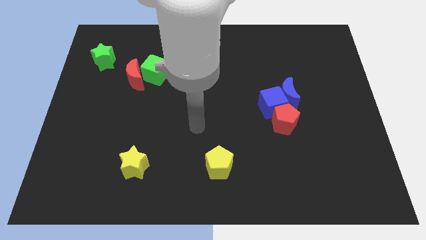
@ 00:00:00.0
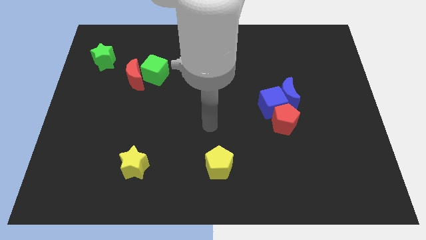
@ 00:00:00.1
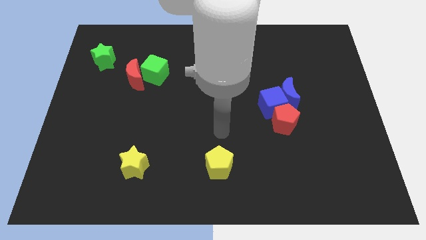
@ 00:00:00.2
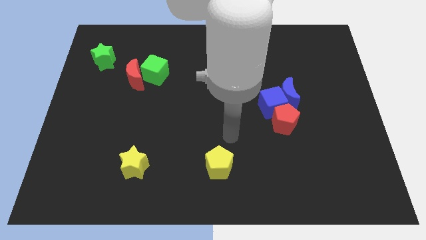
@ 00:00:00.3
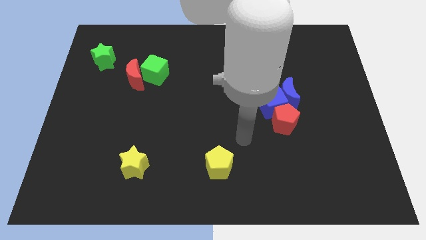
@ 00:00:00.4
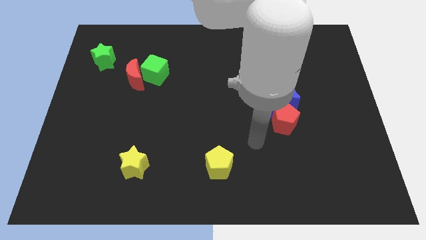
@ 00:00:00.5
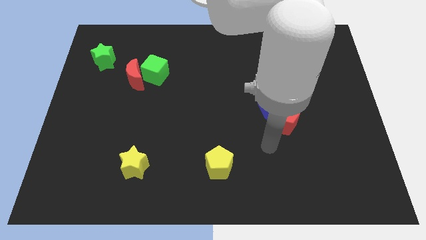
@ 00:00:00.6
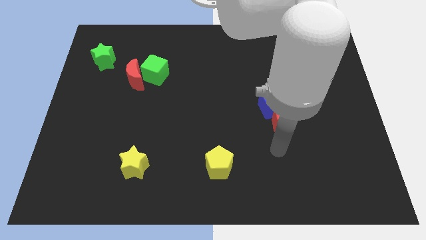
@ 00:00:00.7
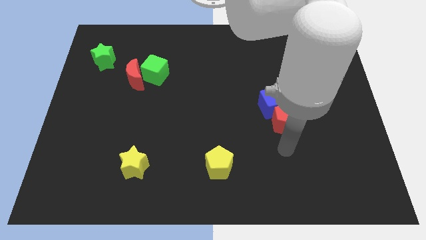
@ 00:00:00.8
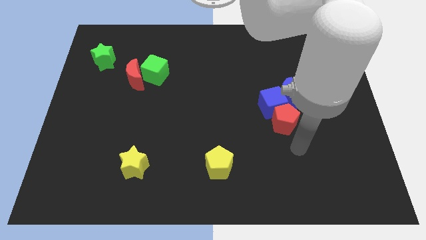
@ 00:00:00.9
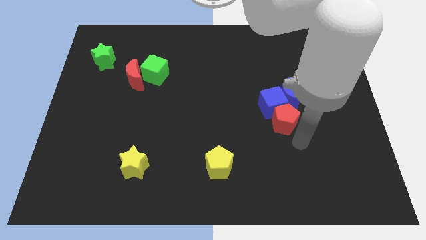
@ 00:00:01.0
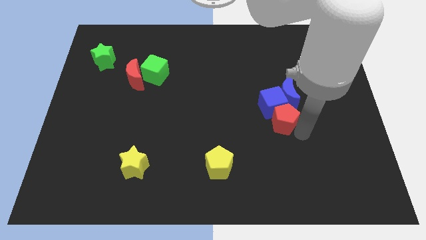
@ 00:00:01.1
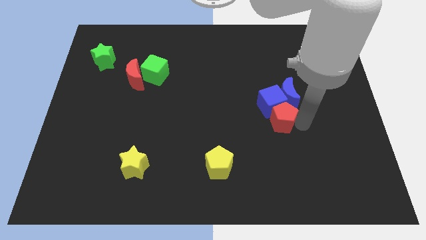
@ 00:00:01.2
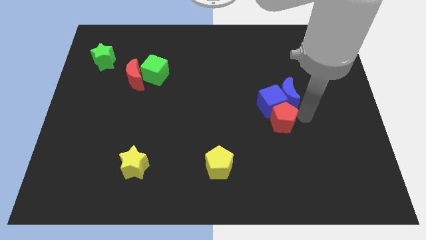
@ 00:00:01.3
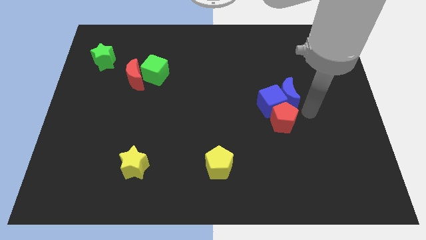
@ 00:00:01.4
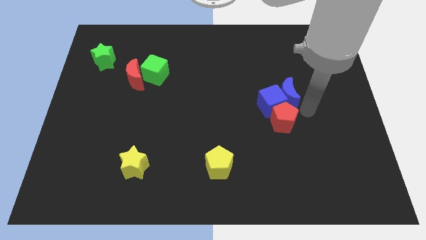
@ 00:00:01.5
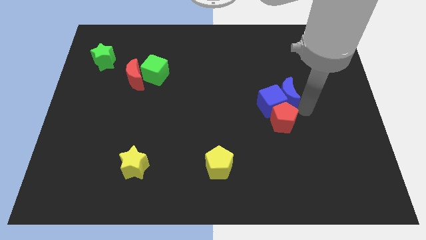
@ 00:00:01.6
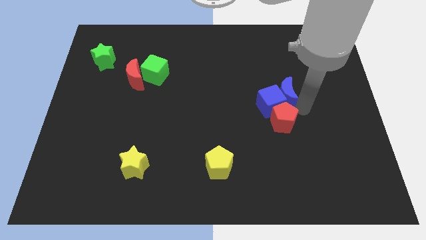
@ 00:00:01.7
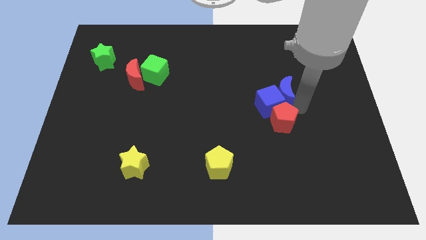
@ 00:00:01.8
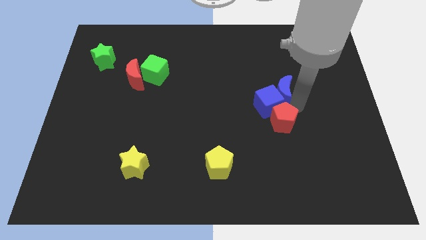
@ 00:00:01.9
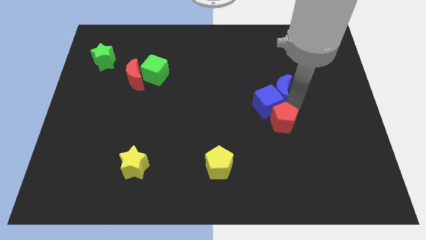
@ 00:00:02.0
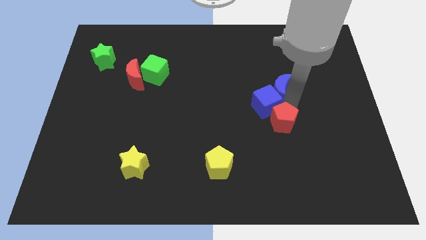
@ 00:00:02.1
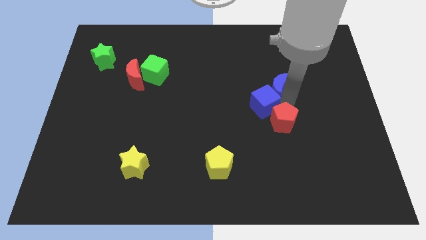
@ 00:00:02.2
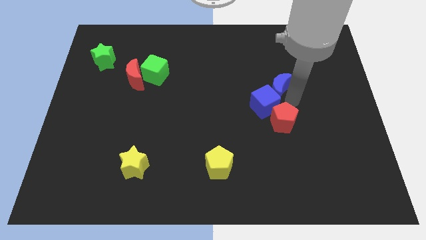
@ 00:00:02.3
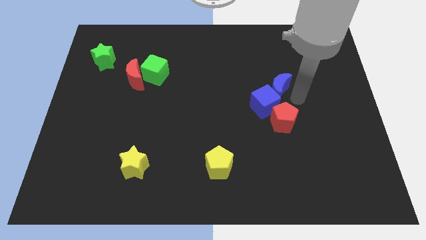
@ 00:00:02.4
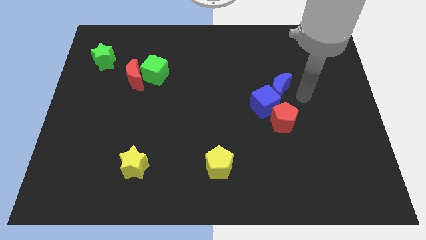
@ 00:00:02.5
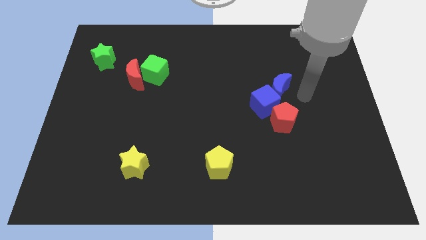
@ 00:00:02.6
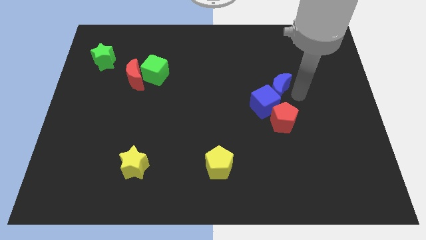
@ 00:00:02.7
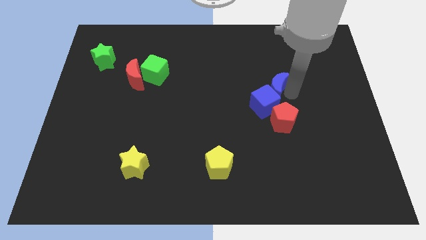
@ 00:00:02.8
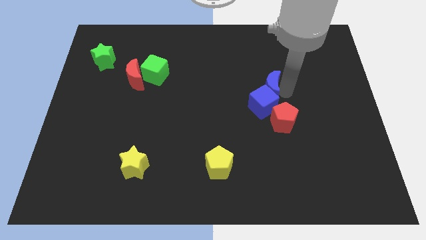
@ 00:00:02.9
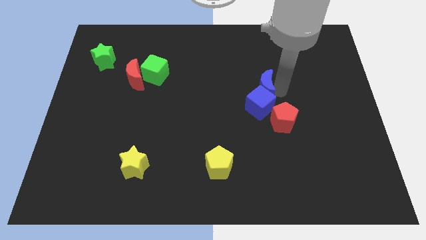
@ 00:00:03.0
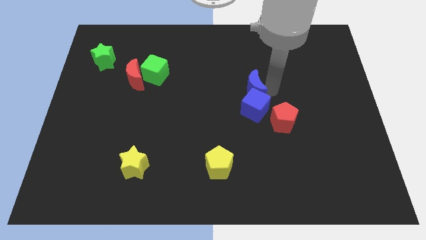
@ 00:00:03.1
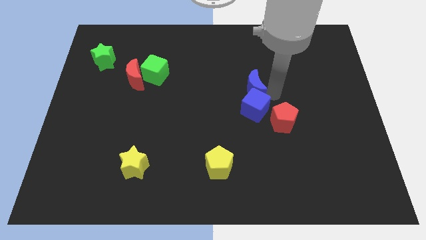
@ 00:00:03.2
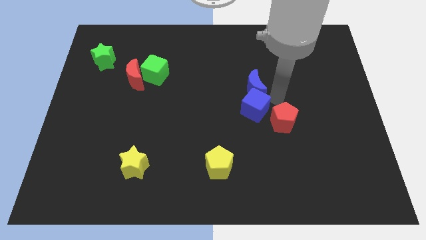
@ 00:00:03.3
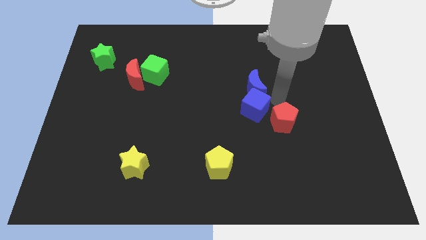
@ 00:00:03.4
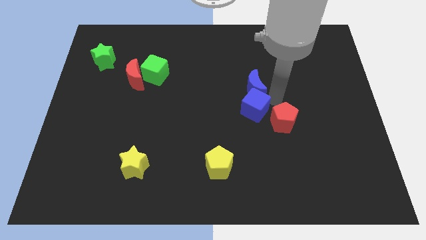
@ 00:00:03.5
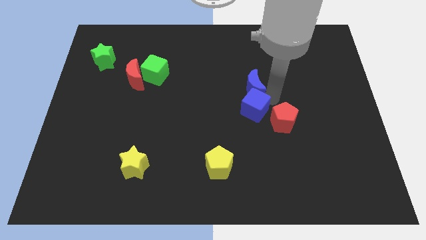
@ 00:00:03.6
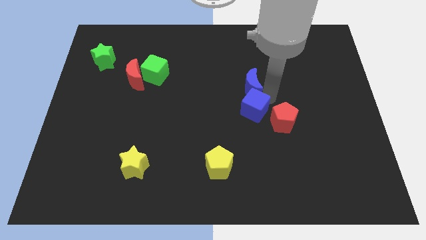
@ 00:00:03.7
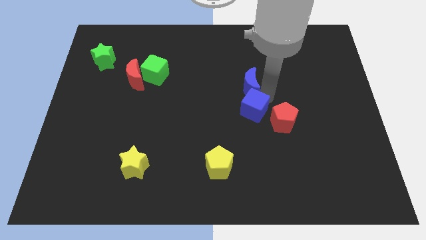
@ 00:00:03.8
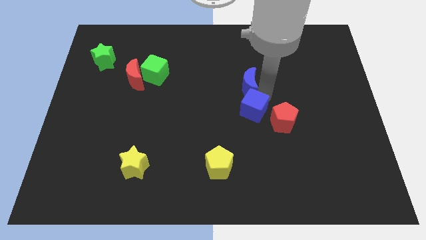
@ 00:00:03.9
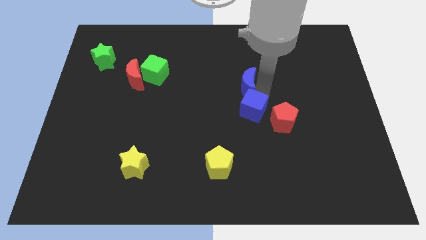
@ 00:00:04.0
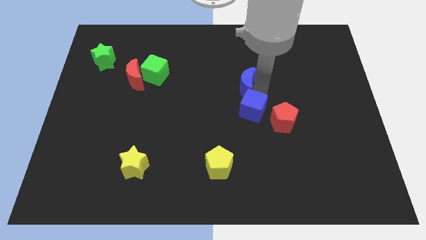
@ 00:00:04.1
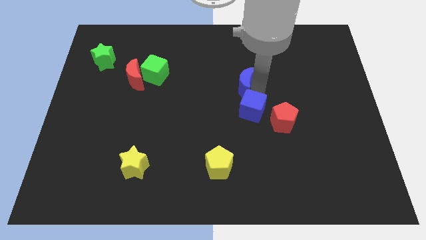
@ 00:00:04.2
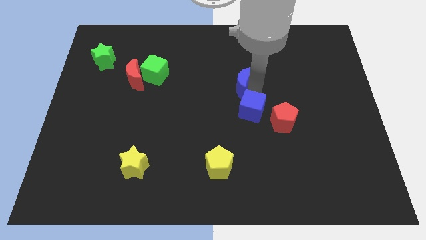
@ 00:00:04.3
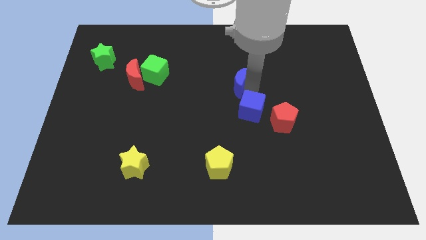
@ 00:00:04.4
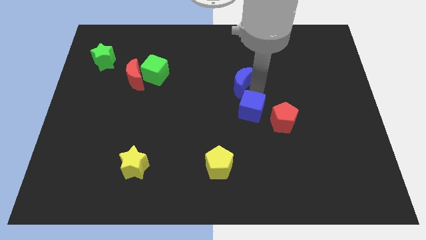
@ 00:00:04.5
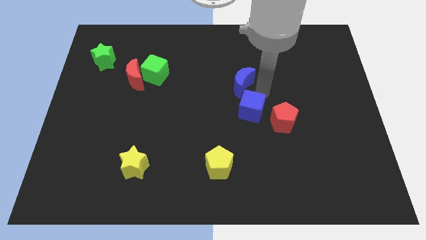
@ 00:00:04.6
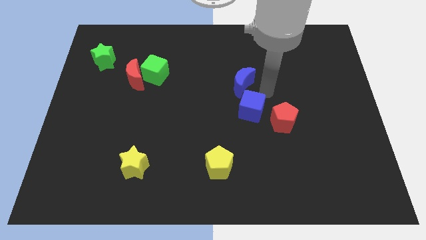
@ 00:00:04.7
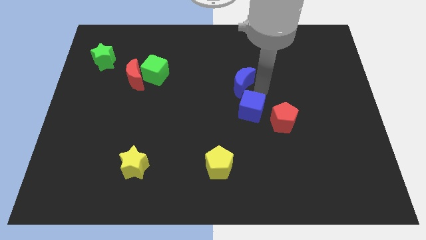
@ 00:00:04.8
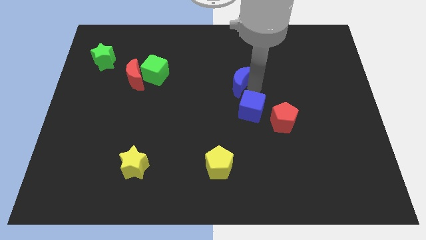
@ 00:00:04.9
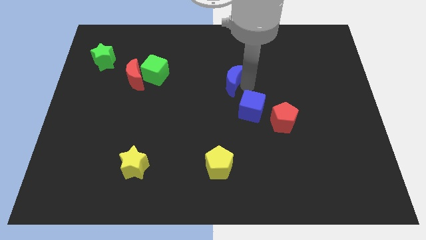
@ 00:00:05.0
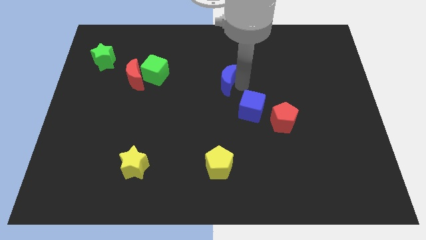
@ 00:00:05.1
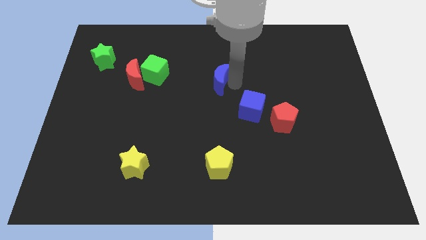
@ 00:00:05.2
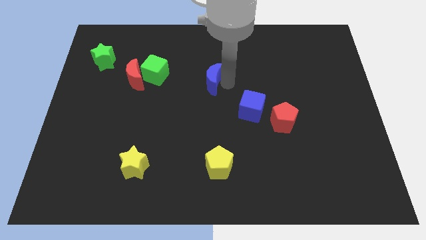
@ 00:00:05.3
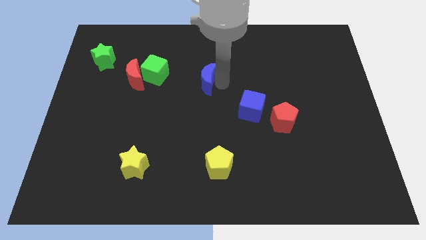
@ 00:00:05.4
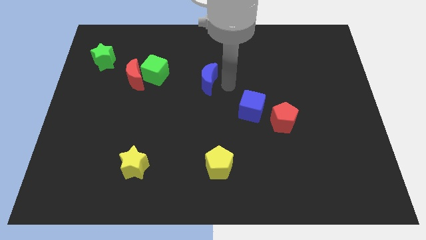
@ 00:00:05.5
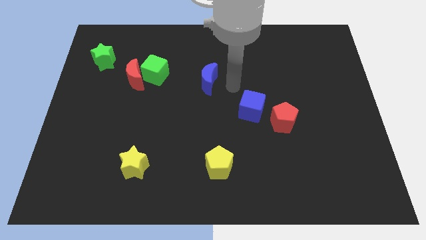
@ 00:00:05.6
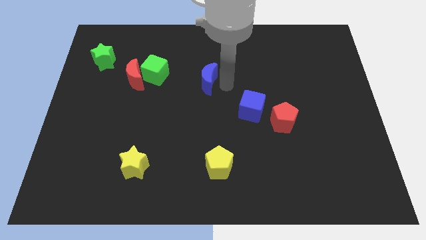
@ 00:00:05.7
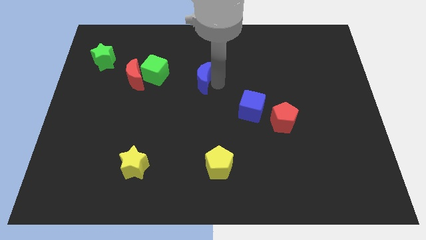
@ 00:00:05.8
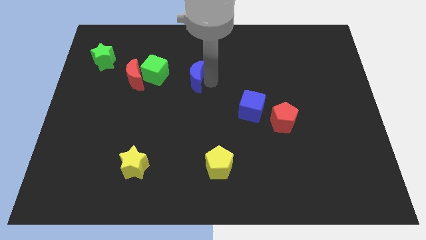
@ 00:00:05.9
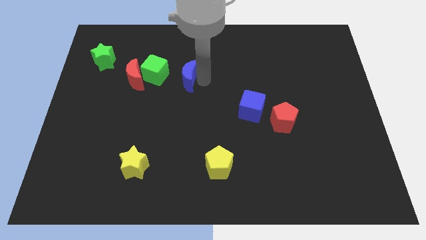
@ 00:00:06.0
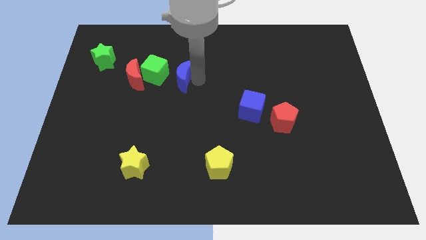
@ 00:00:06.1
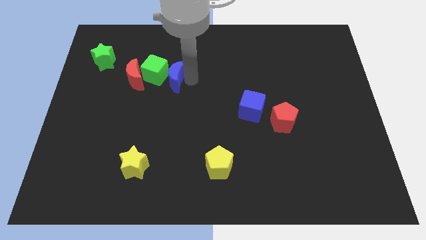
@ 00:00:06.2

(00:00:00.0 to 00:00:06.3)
slide the blue moon towards the green cube

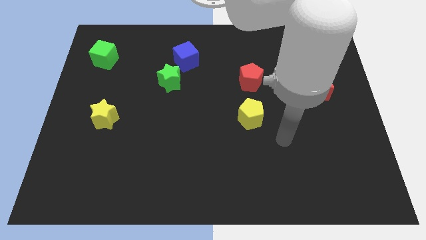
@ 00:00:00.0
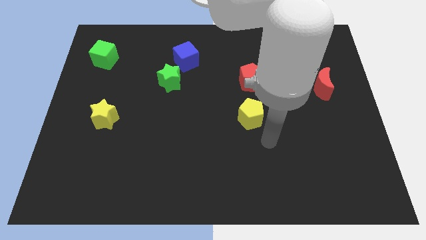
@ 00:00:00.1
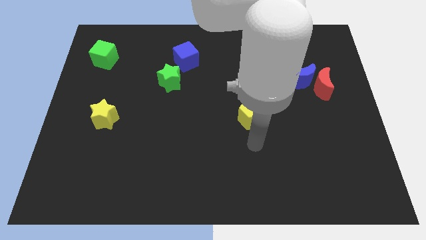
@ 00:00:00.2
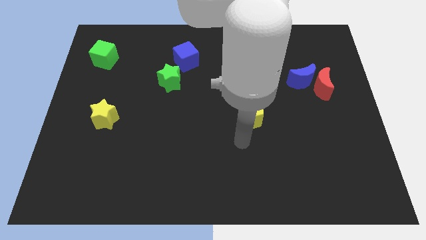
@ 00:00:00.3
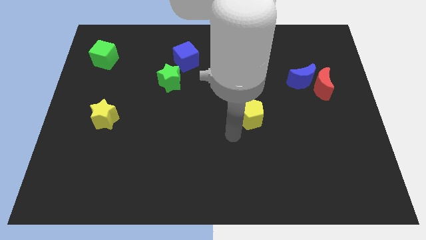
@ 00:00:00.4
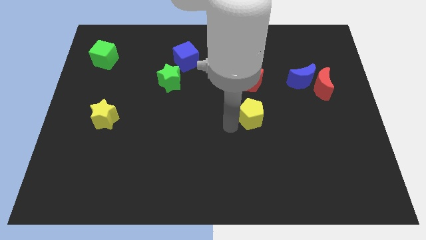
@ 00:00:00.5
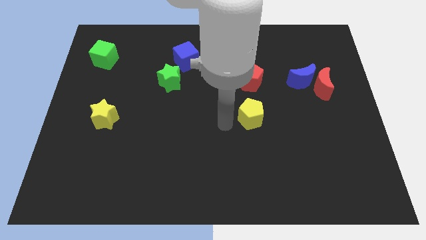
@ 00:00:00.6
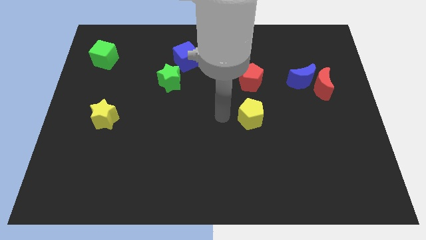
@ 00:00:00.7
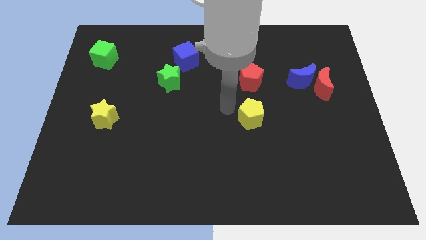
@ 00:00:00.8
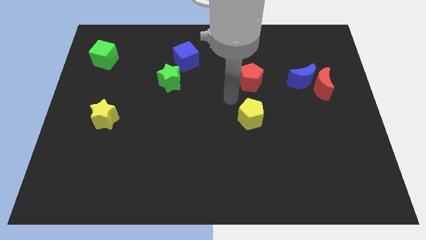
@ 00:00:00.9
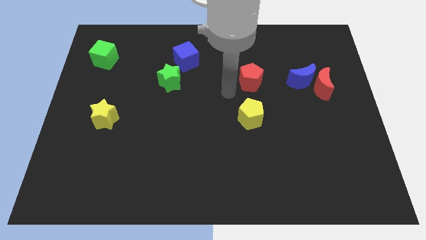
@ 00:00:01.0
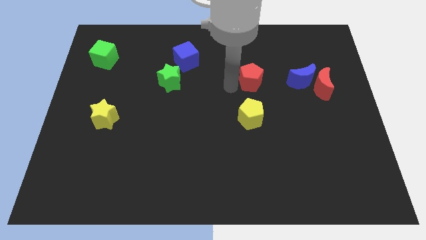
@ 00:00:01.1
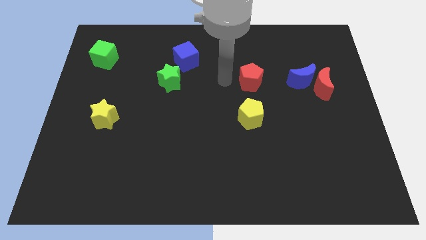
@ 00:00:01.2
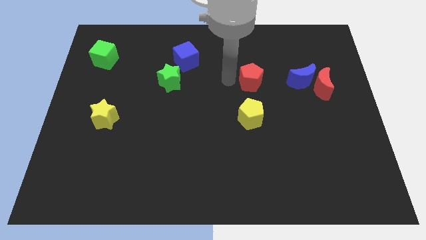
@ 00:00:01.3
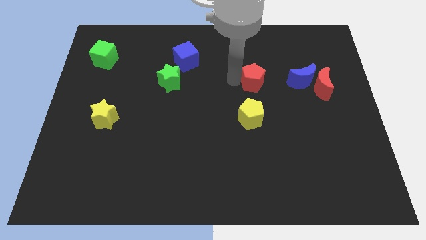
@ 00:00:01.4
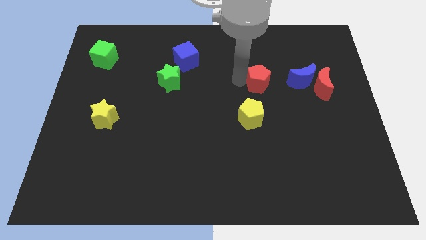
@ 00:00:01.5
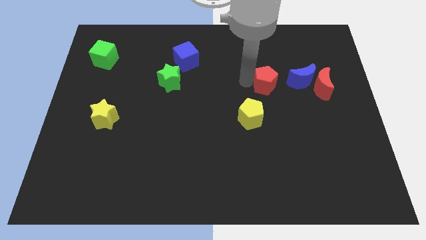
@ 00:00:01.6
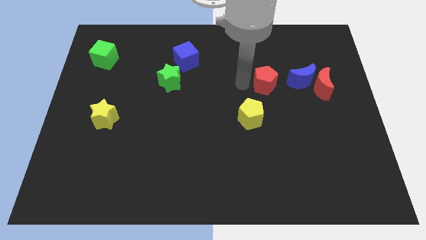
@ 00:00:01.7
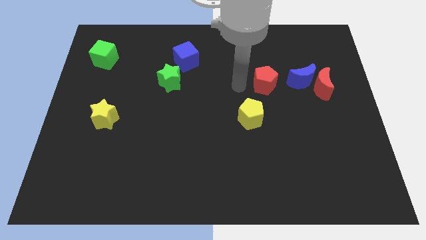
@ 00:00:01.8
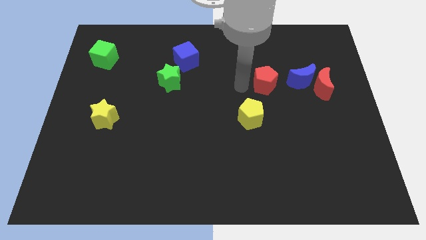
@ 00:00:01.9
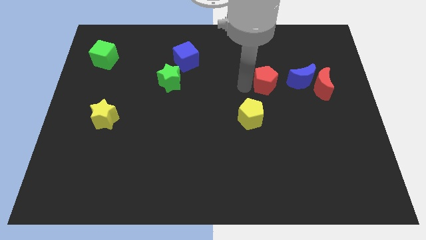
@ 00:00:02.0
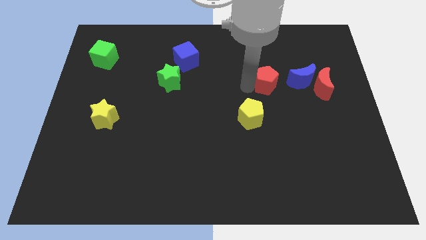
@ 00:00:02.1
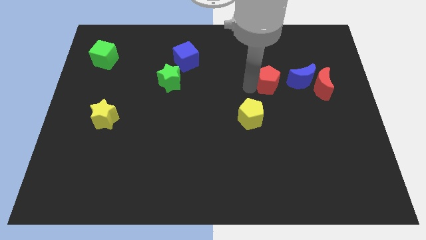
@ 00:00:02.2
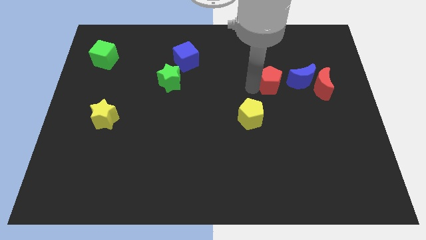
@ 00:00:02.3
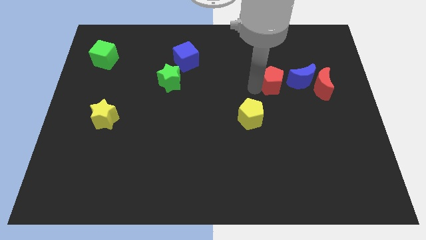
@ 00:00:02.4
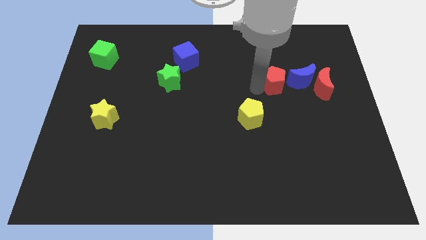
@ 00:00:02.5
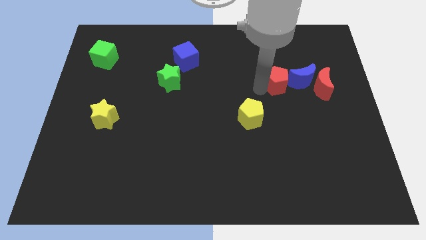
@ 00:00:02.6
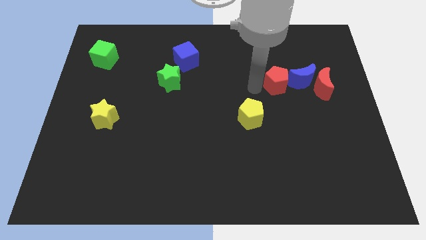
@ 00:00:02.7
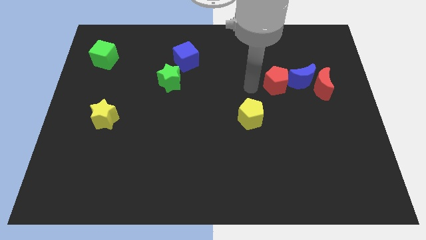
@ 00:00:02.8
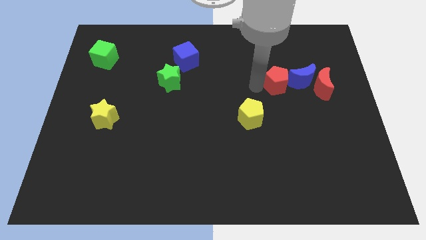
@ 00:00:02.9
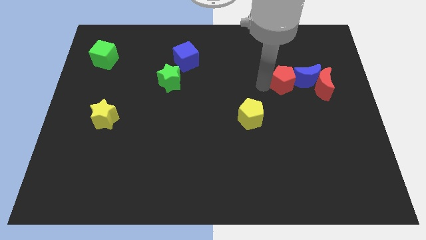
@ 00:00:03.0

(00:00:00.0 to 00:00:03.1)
put the red pentagon close to the blue moon
